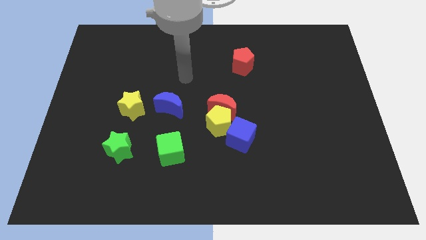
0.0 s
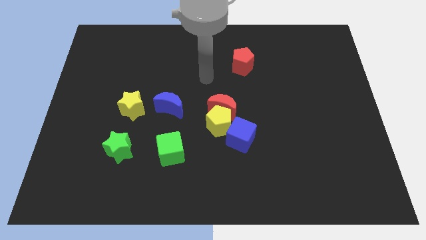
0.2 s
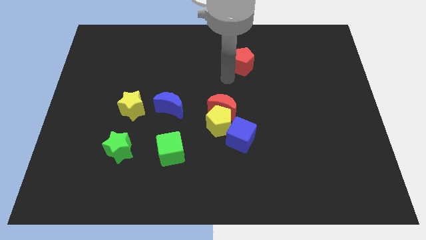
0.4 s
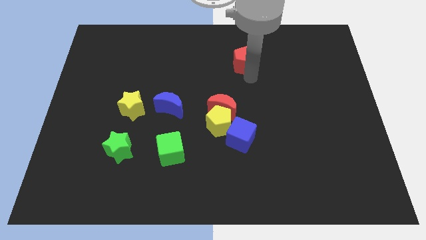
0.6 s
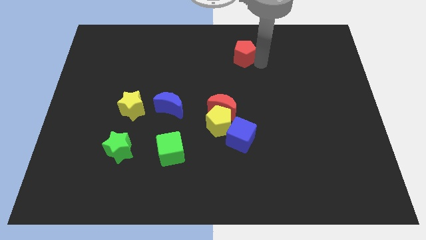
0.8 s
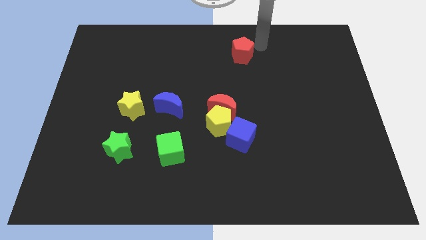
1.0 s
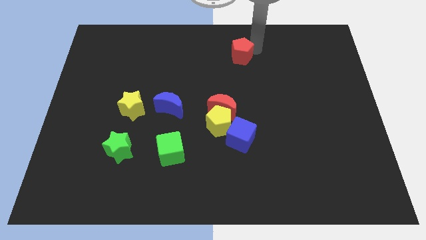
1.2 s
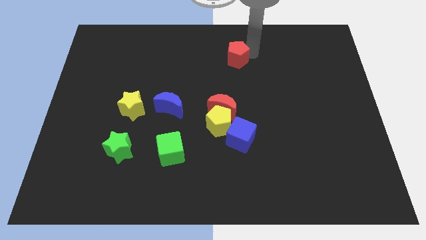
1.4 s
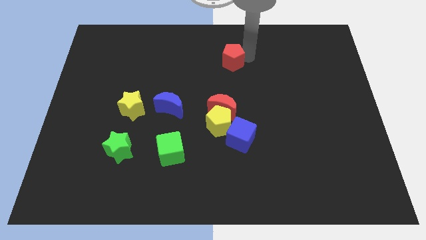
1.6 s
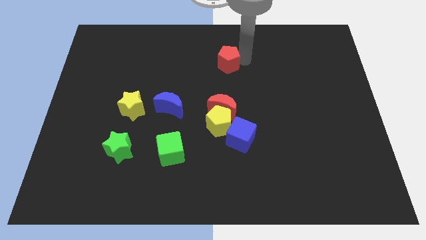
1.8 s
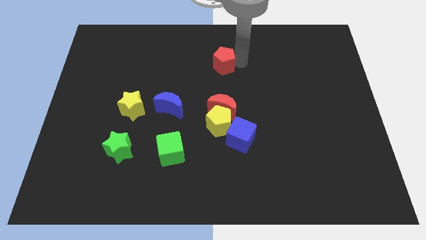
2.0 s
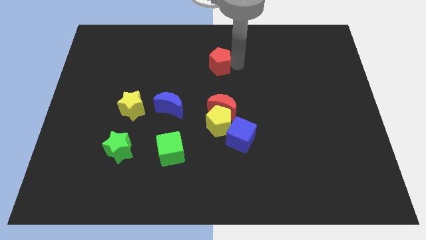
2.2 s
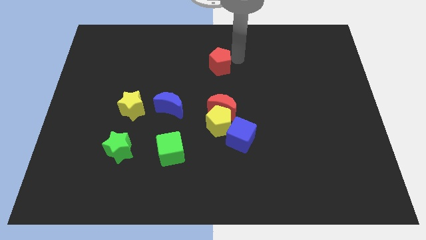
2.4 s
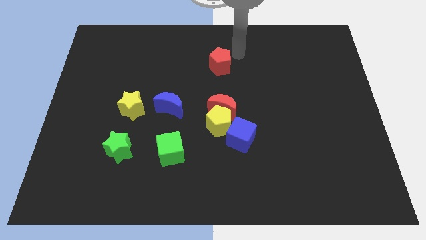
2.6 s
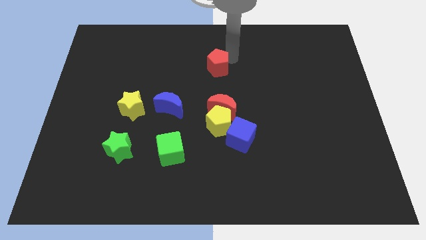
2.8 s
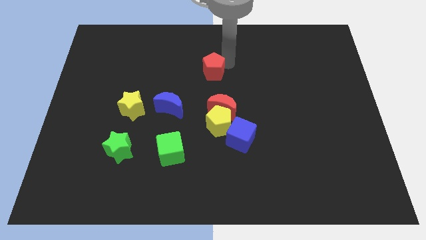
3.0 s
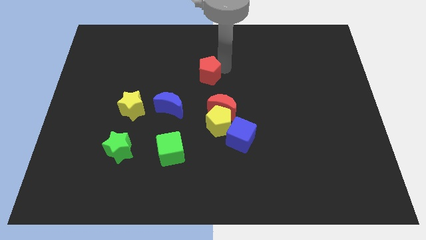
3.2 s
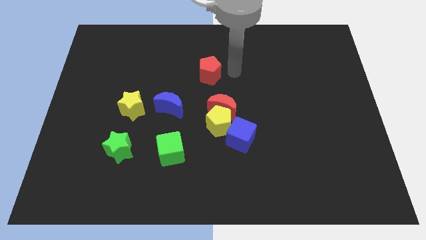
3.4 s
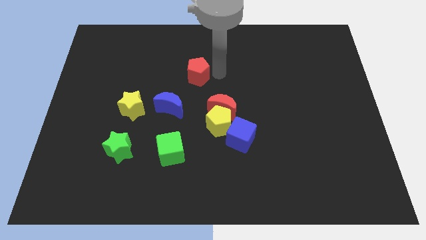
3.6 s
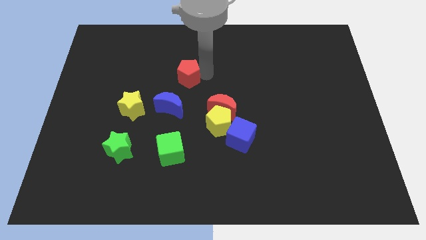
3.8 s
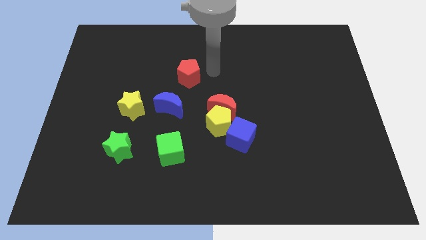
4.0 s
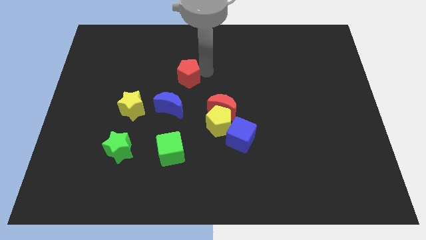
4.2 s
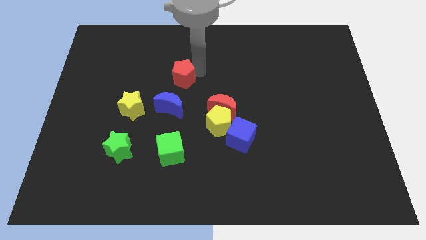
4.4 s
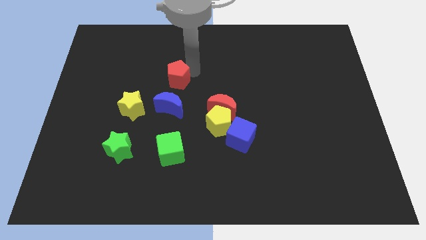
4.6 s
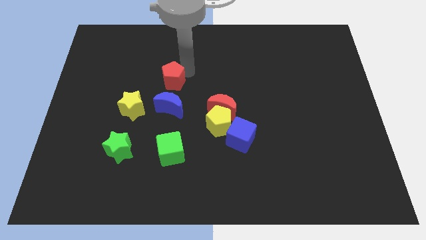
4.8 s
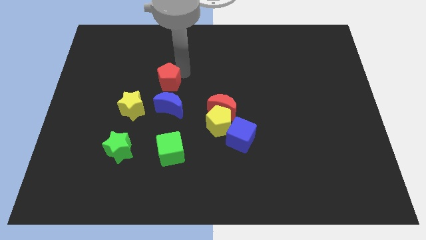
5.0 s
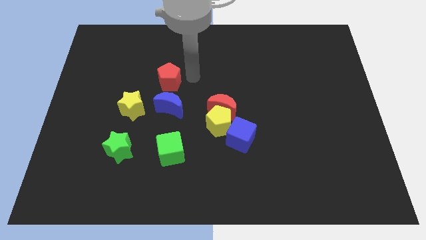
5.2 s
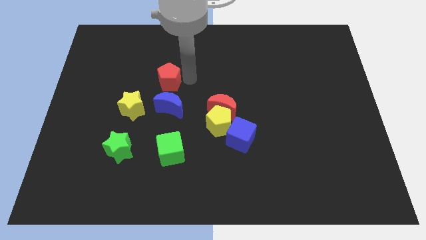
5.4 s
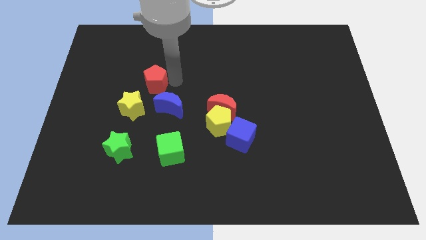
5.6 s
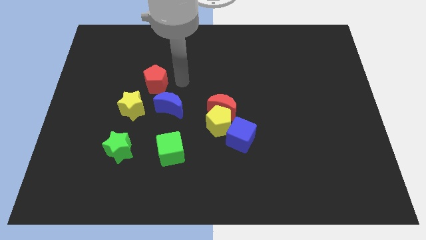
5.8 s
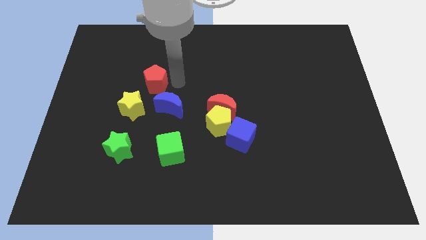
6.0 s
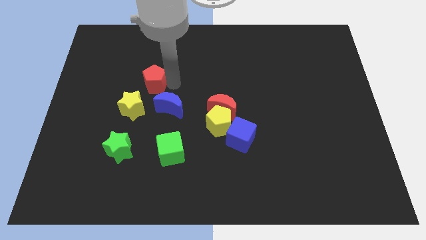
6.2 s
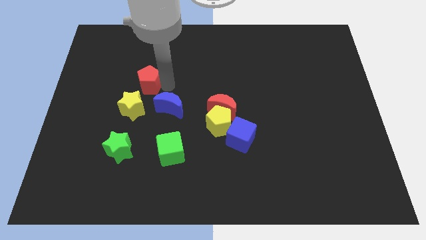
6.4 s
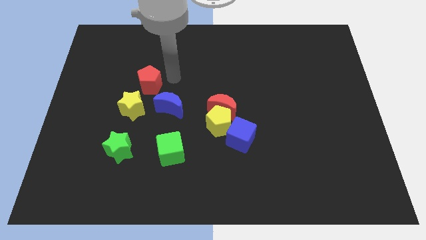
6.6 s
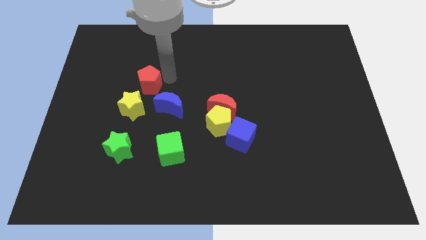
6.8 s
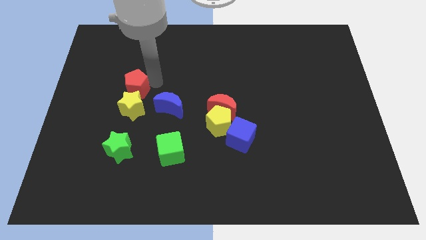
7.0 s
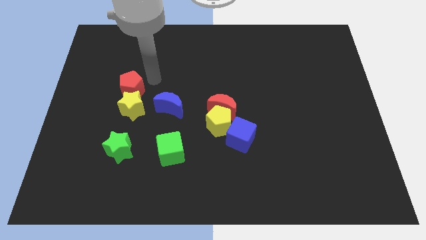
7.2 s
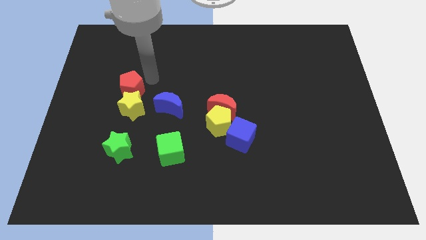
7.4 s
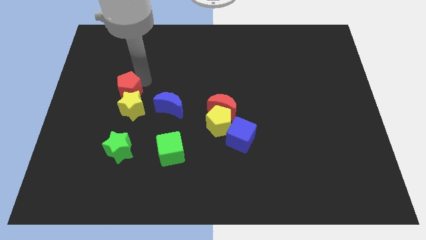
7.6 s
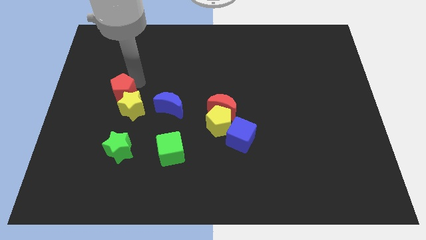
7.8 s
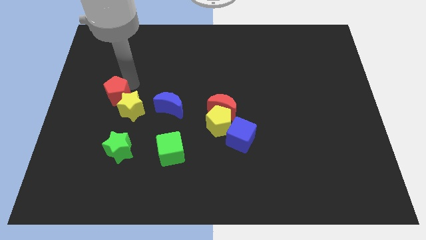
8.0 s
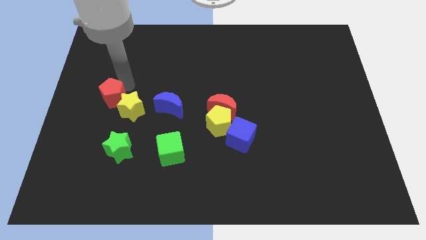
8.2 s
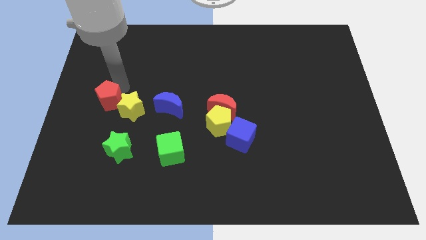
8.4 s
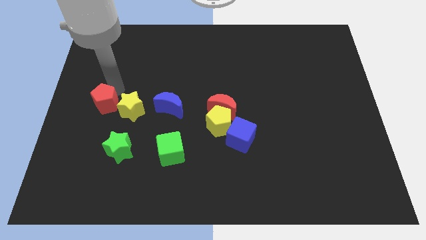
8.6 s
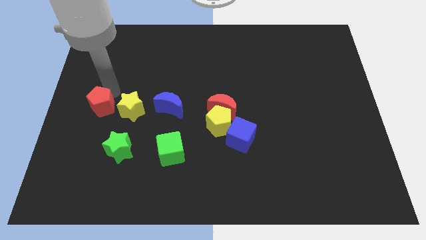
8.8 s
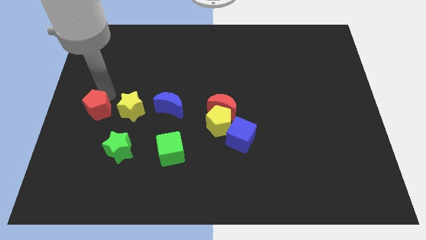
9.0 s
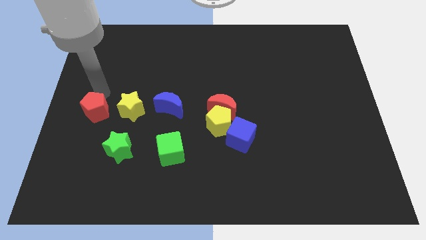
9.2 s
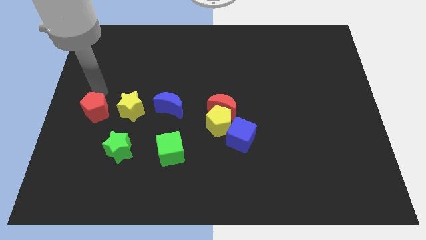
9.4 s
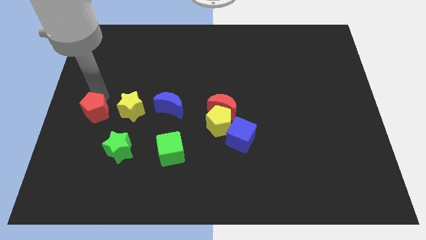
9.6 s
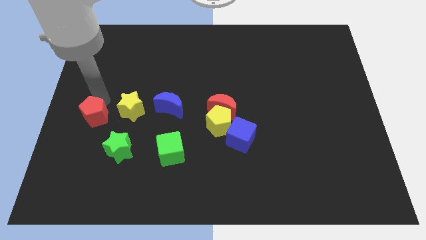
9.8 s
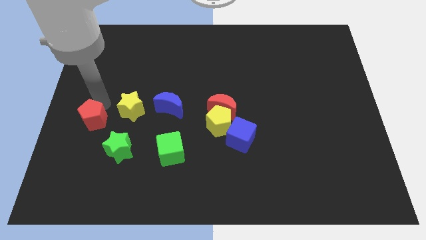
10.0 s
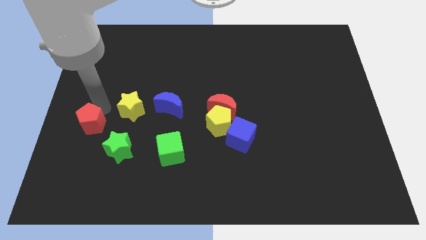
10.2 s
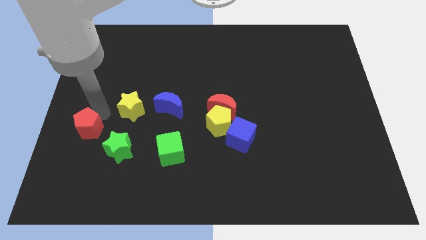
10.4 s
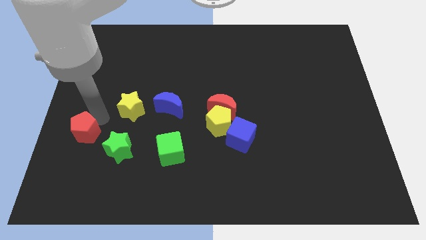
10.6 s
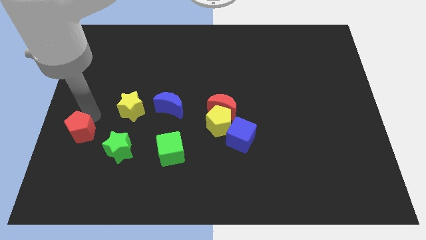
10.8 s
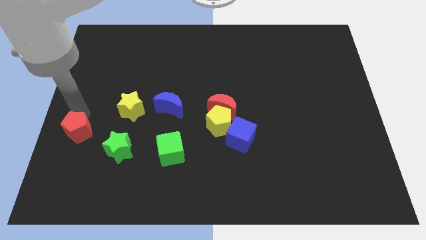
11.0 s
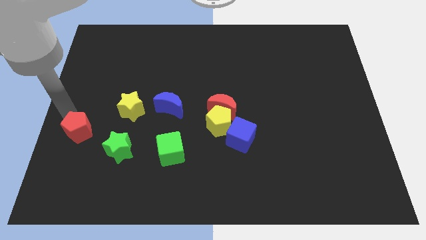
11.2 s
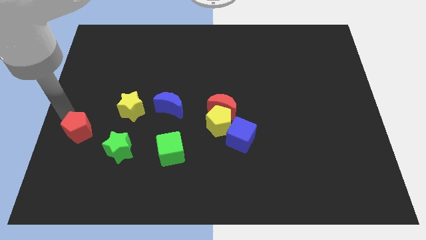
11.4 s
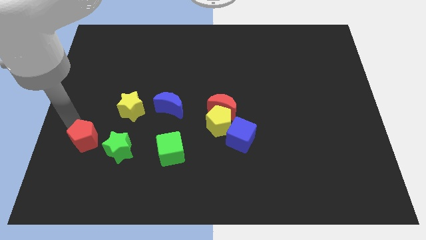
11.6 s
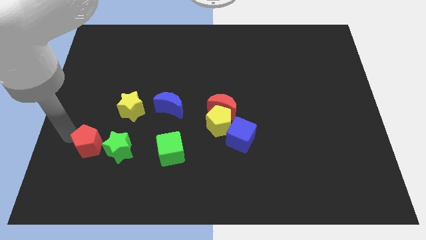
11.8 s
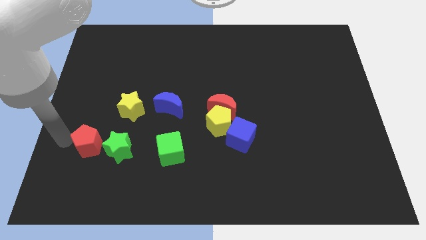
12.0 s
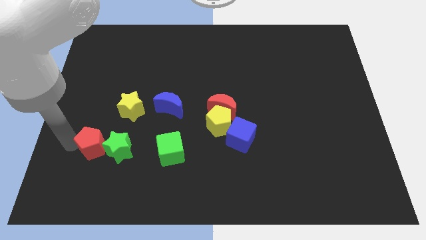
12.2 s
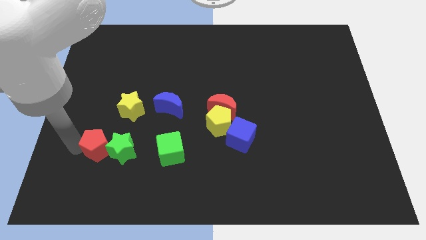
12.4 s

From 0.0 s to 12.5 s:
put the red pentagon to the left side of the green cube

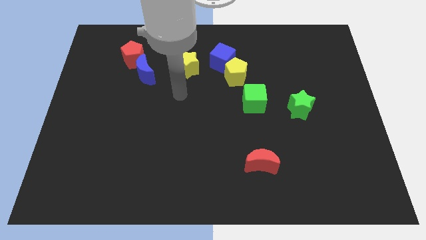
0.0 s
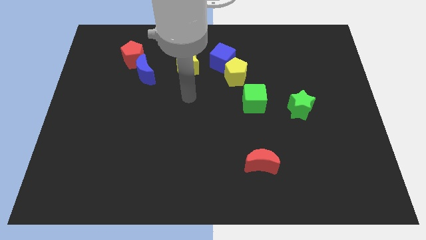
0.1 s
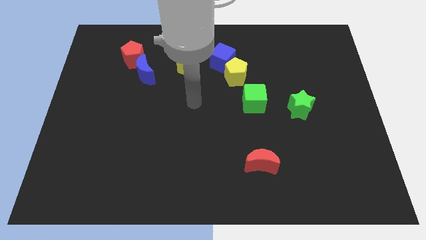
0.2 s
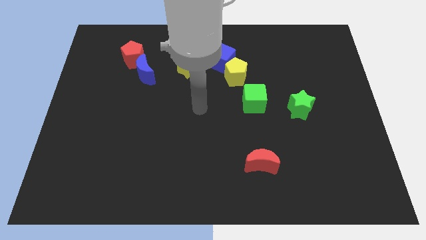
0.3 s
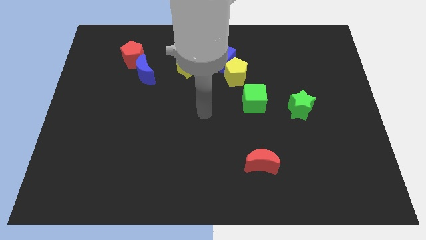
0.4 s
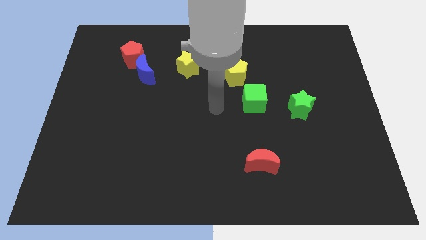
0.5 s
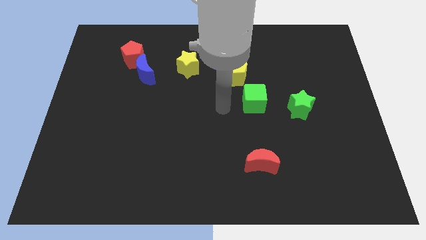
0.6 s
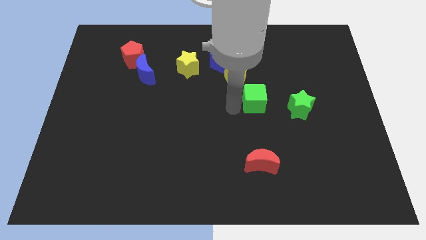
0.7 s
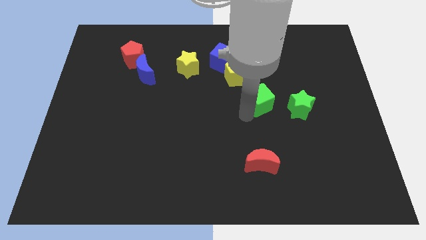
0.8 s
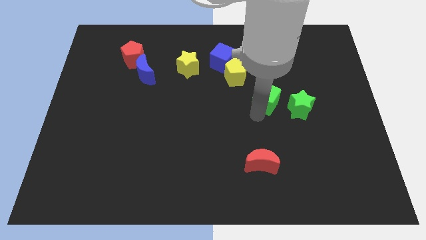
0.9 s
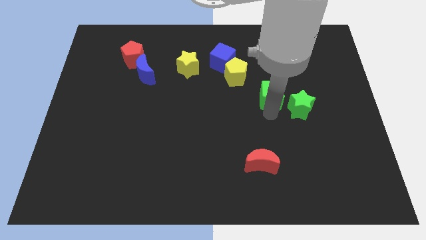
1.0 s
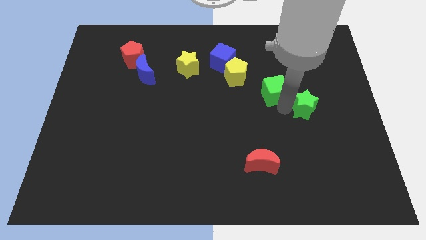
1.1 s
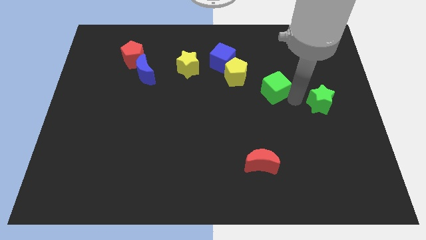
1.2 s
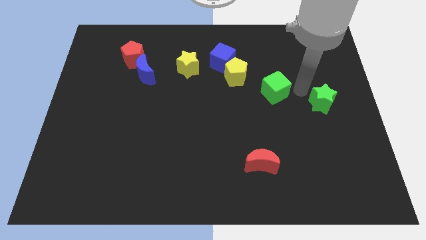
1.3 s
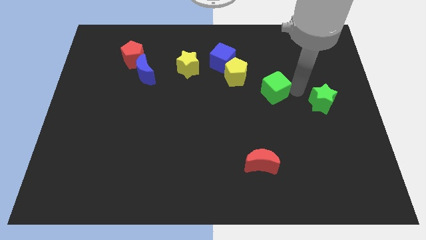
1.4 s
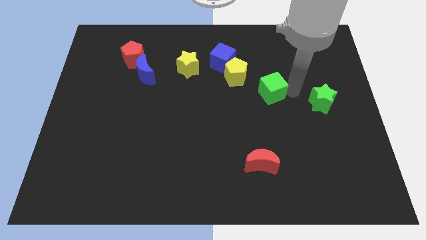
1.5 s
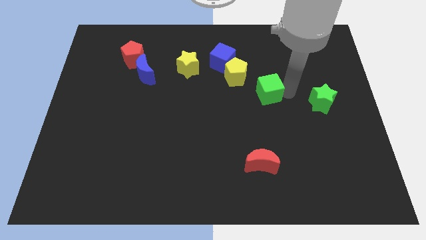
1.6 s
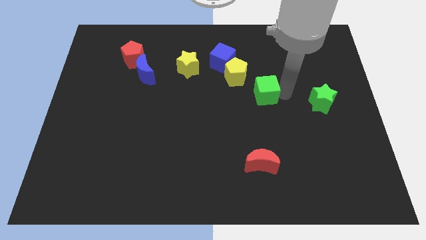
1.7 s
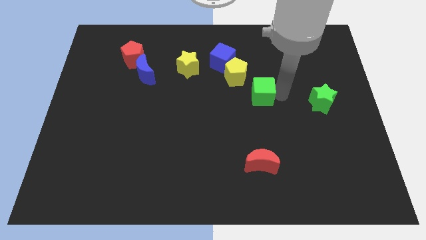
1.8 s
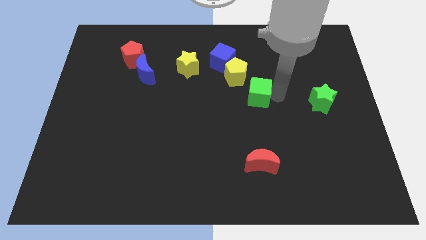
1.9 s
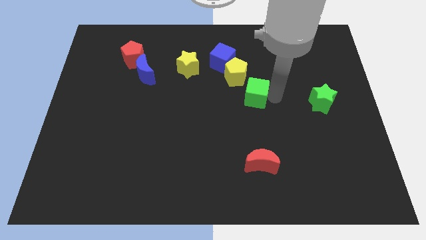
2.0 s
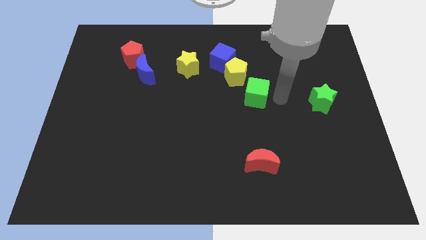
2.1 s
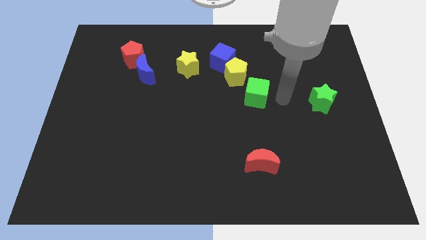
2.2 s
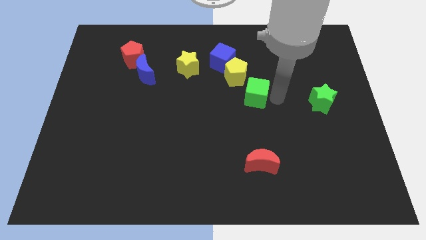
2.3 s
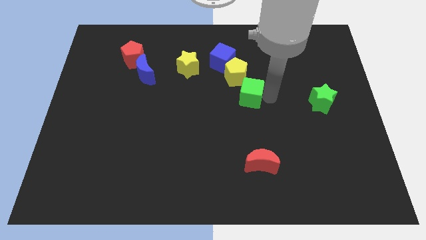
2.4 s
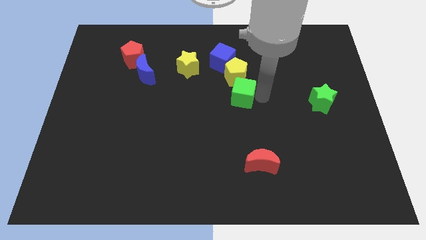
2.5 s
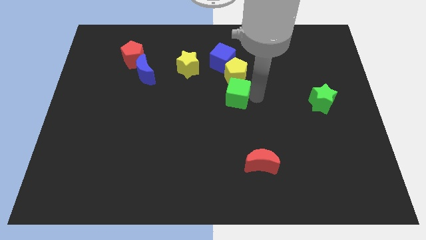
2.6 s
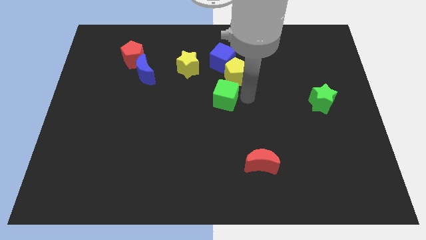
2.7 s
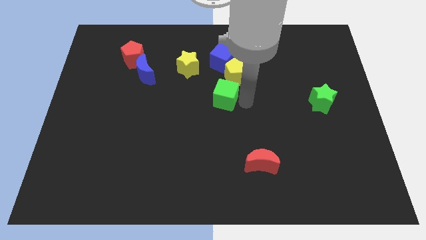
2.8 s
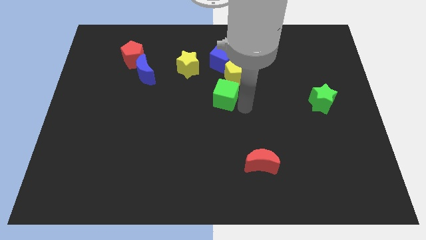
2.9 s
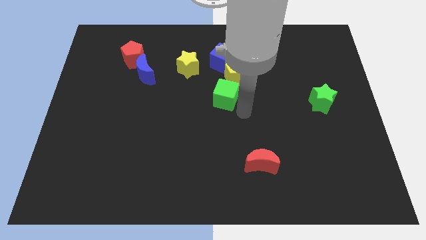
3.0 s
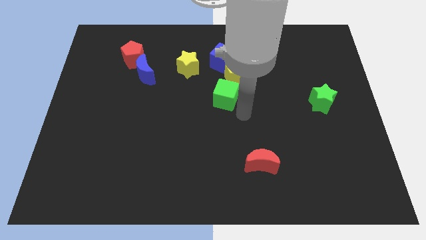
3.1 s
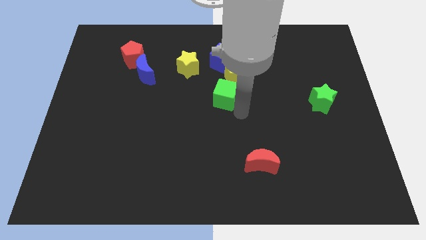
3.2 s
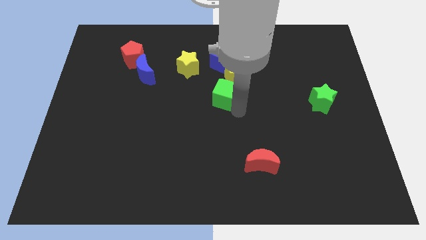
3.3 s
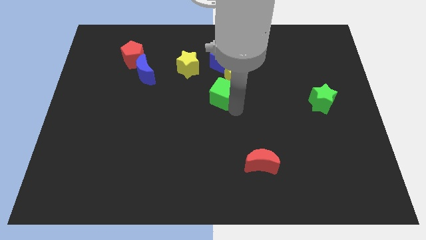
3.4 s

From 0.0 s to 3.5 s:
push the green cube to the bottom right side of the yellow star
